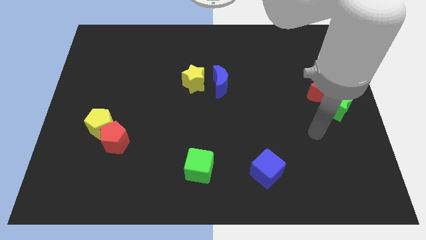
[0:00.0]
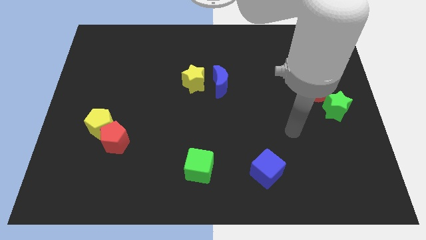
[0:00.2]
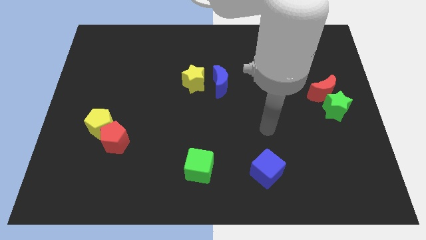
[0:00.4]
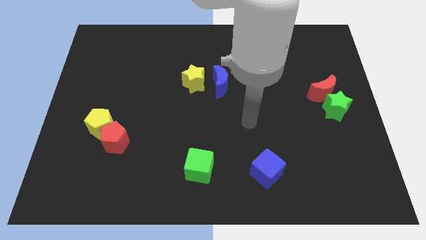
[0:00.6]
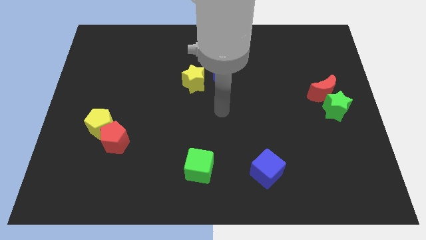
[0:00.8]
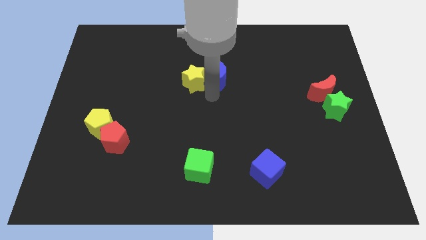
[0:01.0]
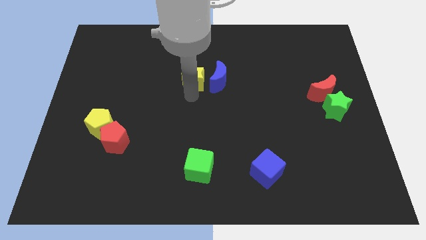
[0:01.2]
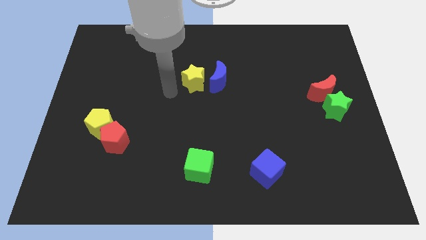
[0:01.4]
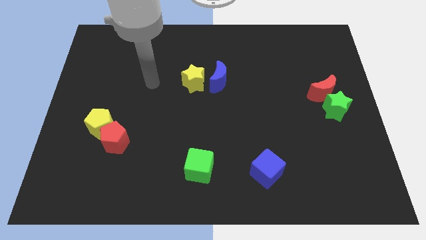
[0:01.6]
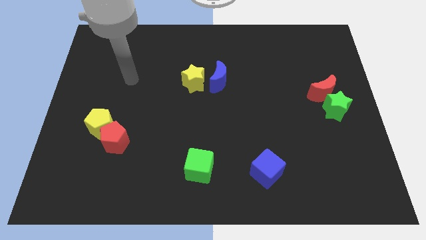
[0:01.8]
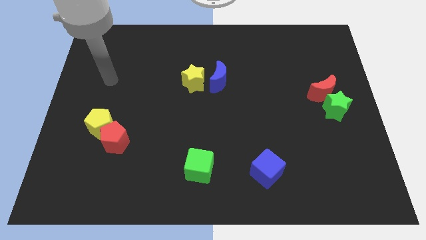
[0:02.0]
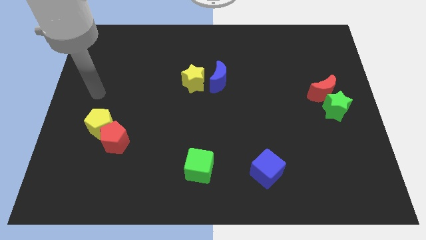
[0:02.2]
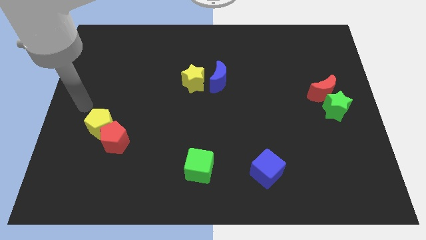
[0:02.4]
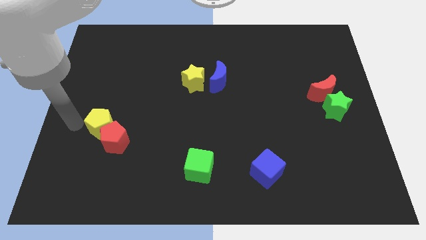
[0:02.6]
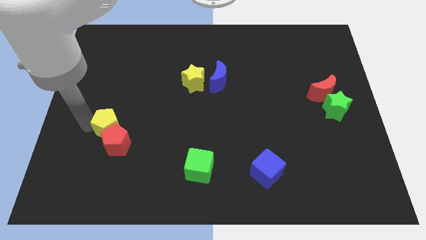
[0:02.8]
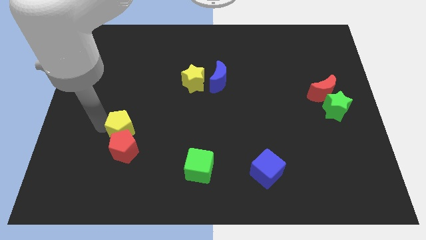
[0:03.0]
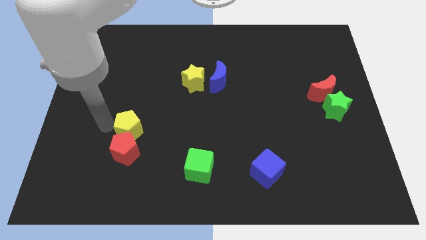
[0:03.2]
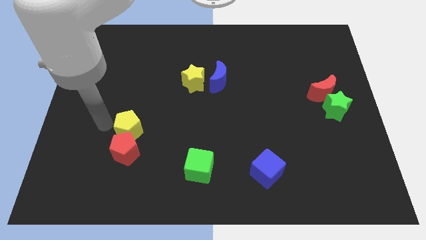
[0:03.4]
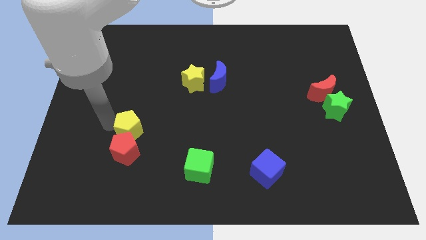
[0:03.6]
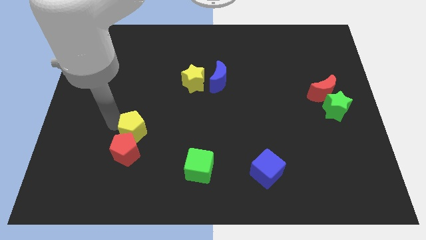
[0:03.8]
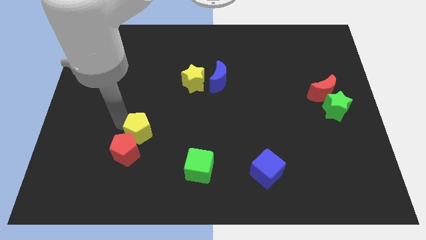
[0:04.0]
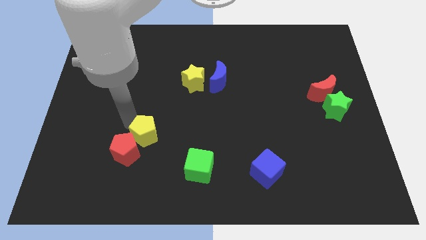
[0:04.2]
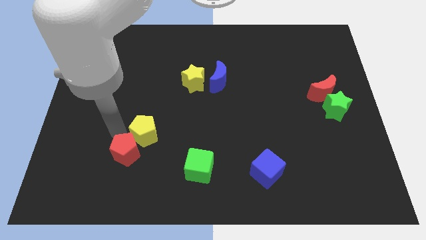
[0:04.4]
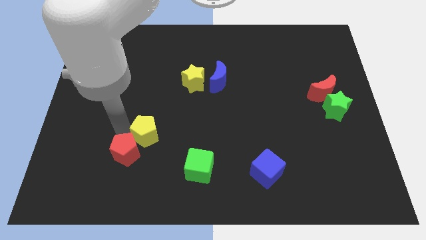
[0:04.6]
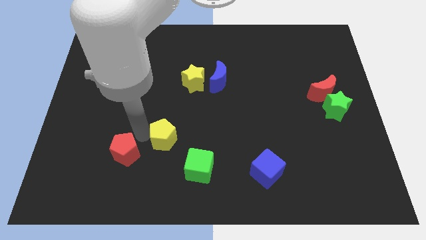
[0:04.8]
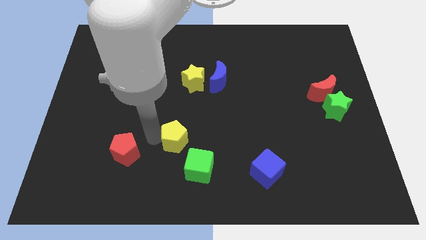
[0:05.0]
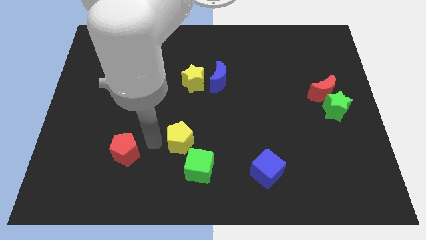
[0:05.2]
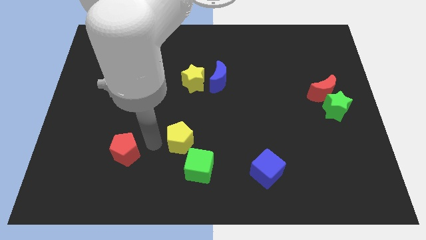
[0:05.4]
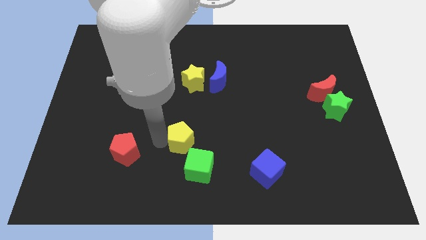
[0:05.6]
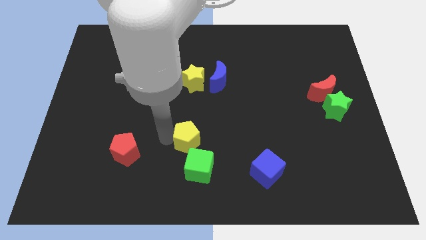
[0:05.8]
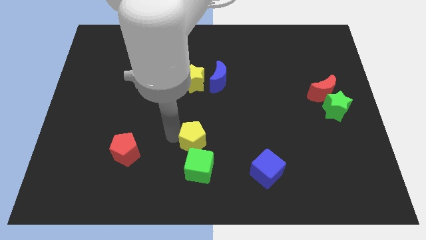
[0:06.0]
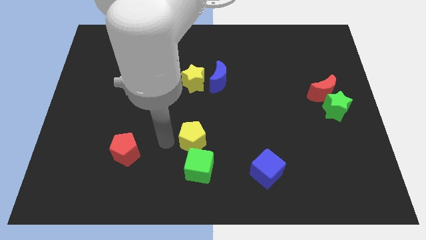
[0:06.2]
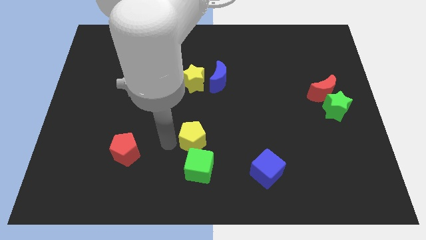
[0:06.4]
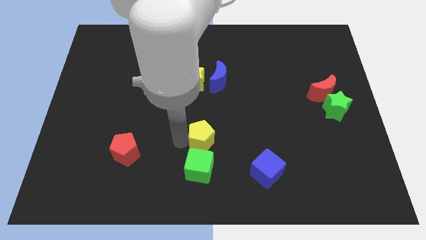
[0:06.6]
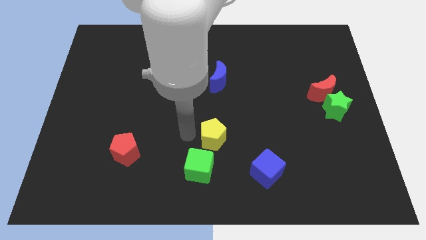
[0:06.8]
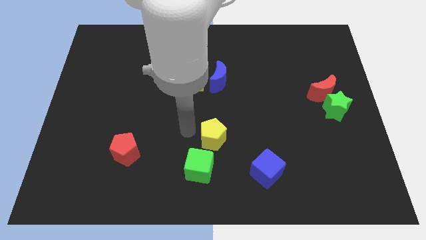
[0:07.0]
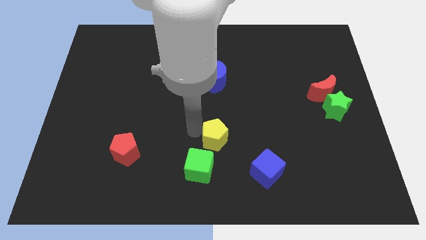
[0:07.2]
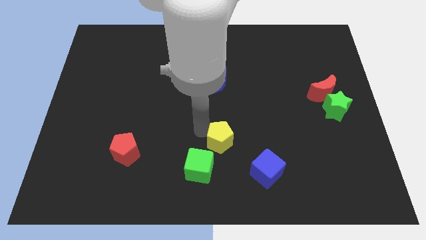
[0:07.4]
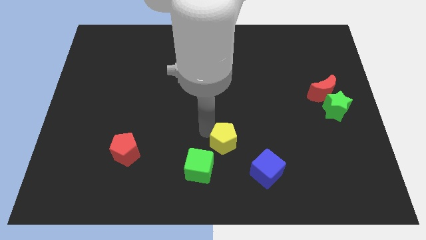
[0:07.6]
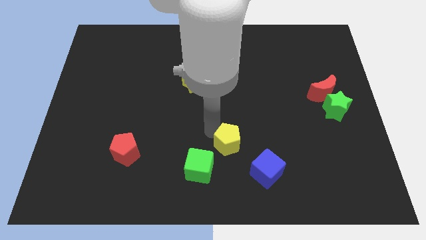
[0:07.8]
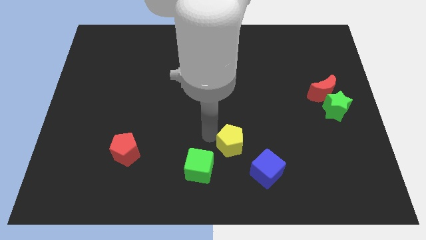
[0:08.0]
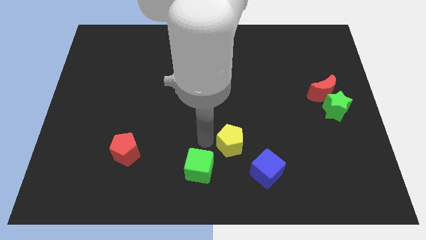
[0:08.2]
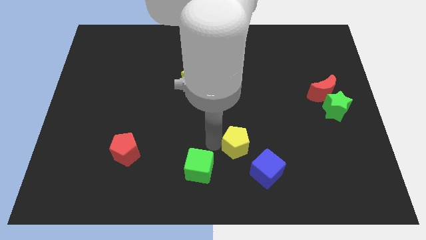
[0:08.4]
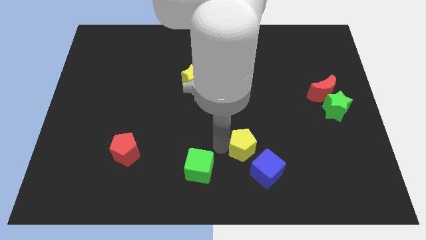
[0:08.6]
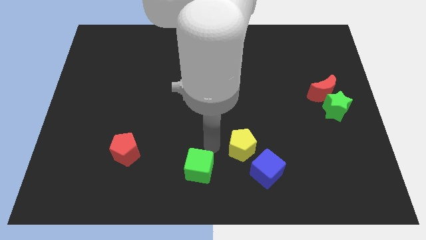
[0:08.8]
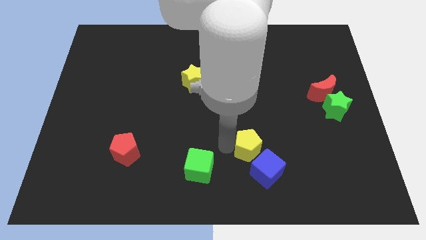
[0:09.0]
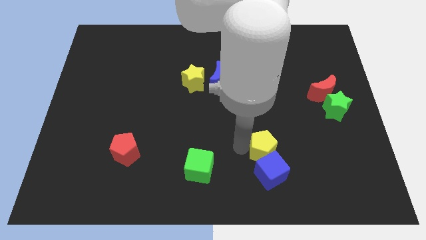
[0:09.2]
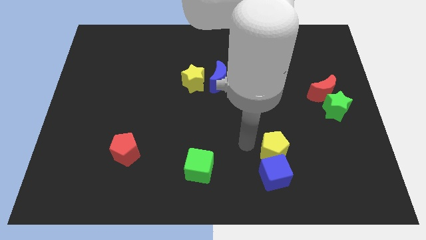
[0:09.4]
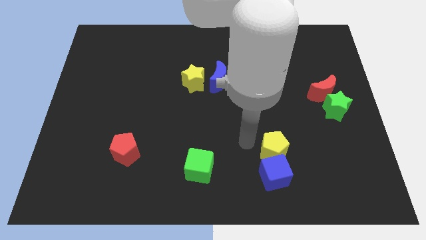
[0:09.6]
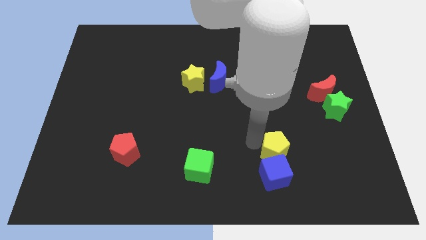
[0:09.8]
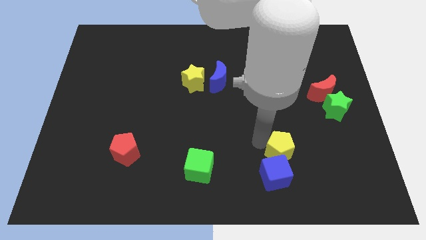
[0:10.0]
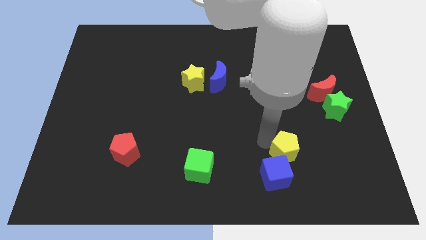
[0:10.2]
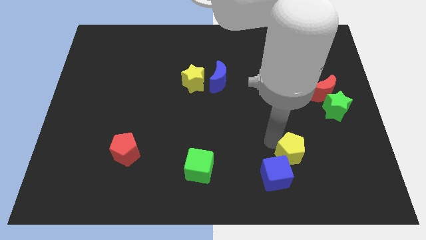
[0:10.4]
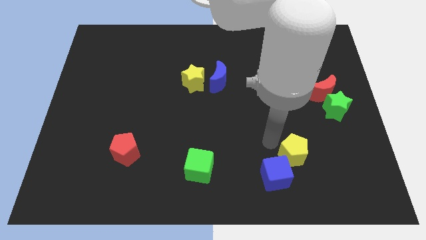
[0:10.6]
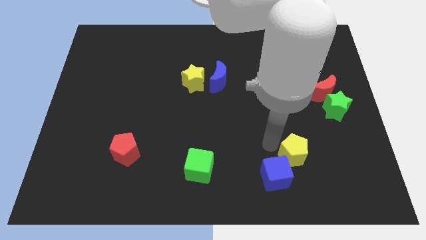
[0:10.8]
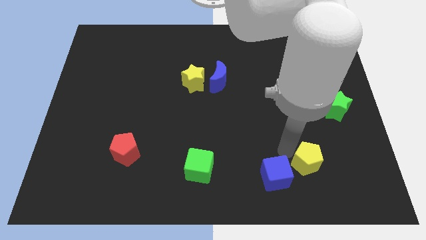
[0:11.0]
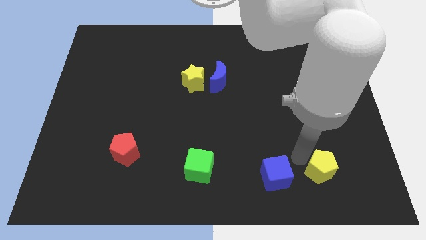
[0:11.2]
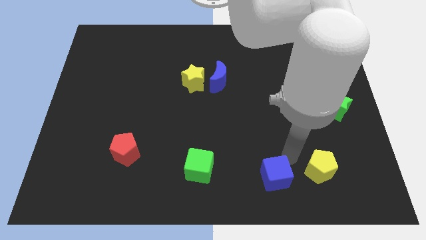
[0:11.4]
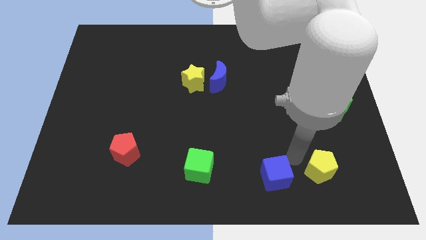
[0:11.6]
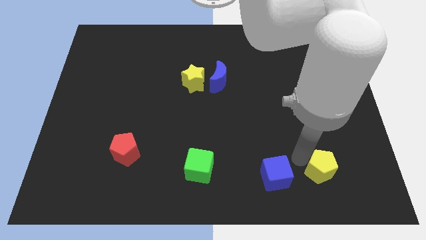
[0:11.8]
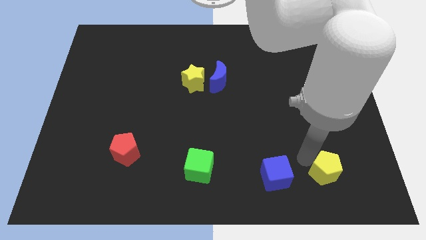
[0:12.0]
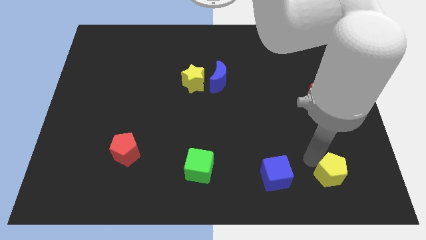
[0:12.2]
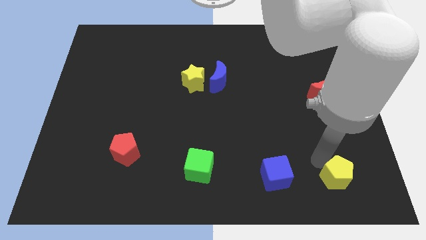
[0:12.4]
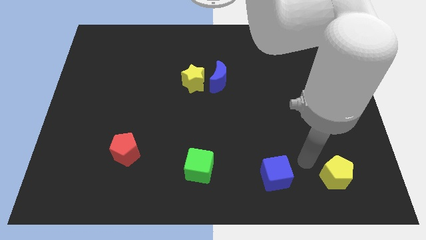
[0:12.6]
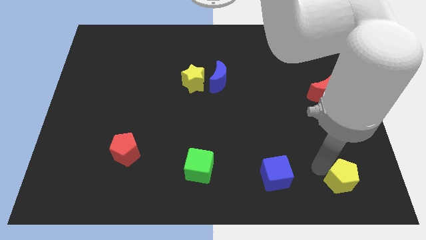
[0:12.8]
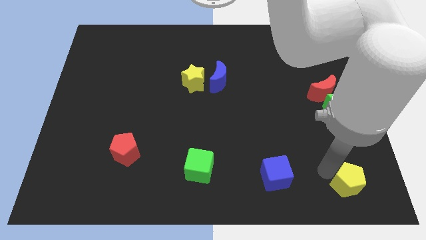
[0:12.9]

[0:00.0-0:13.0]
slide the yellow pentagon to the bottom right of the board
